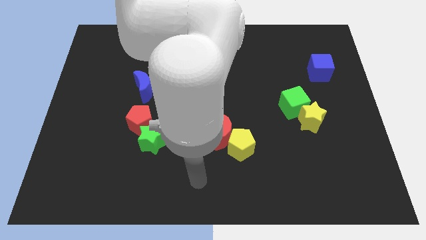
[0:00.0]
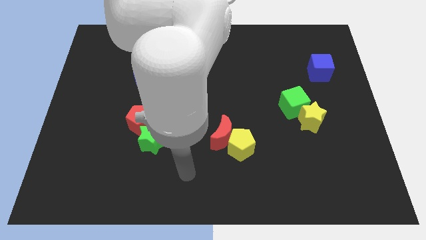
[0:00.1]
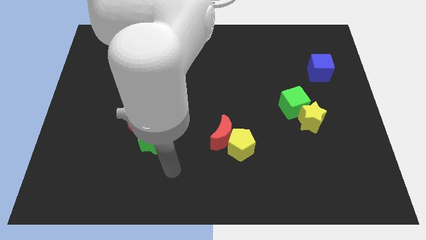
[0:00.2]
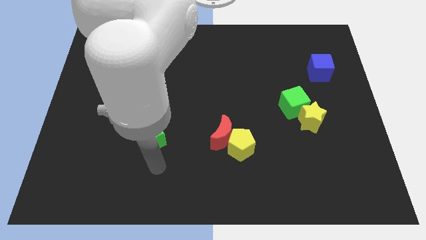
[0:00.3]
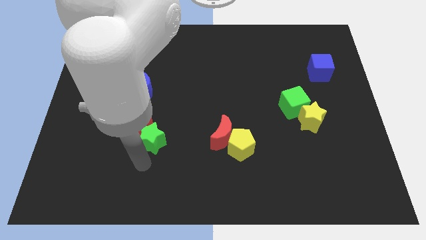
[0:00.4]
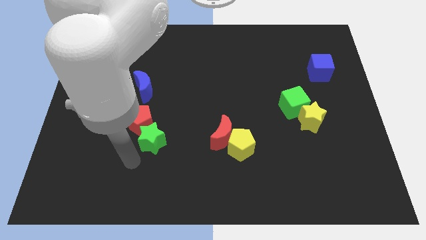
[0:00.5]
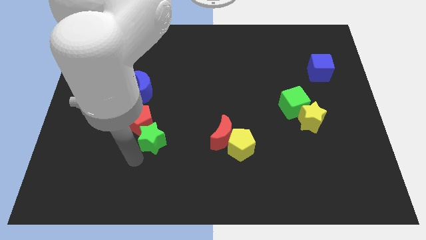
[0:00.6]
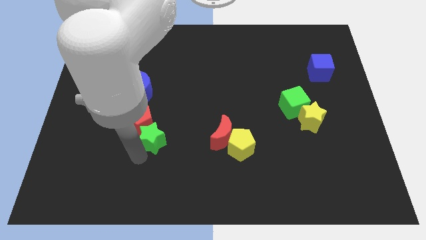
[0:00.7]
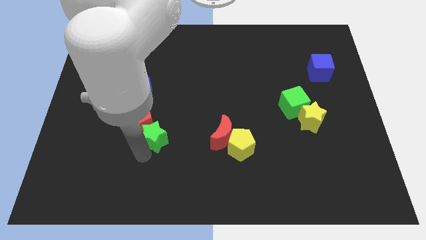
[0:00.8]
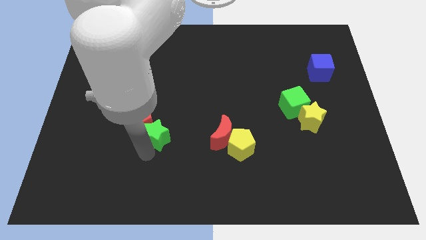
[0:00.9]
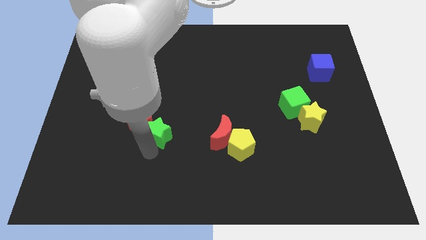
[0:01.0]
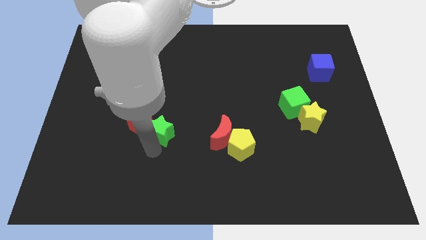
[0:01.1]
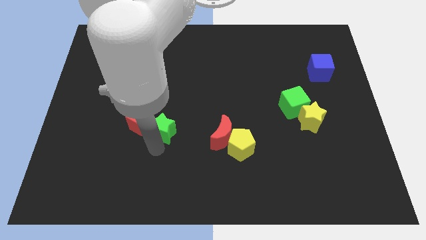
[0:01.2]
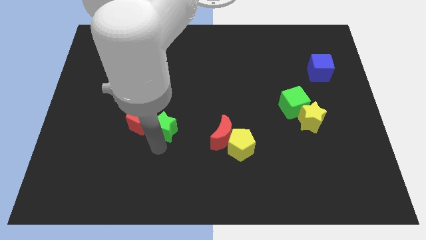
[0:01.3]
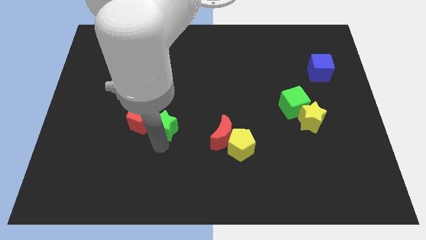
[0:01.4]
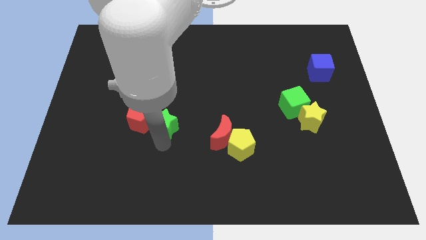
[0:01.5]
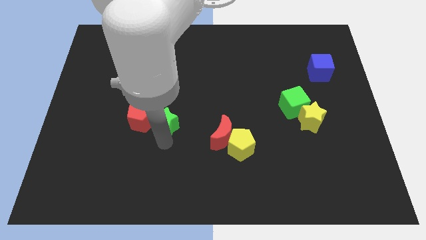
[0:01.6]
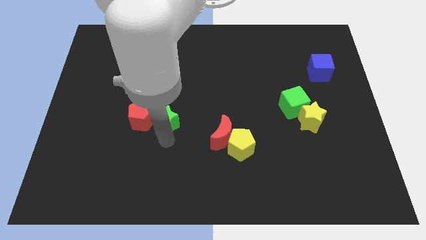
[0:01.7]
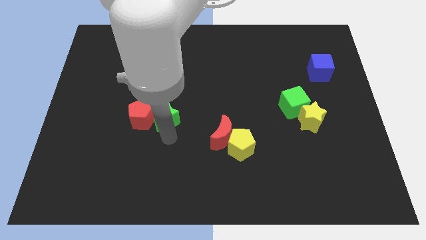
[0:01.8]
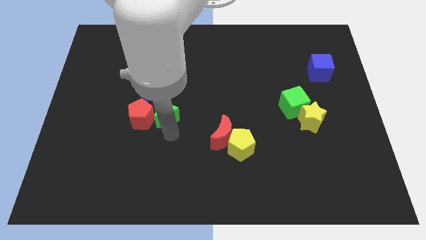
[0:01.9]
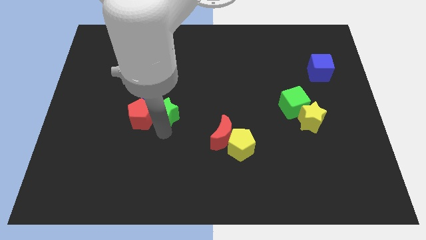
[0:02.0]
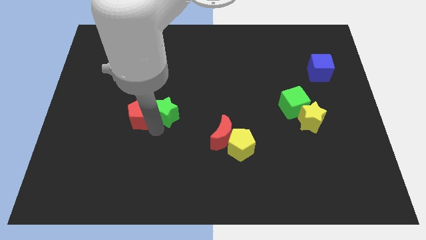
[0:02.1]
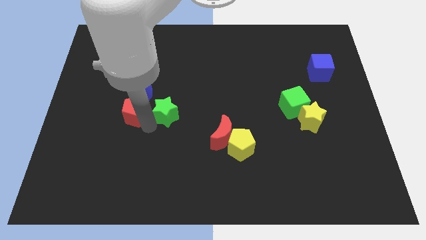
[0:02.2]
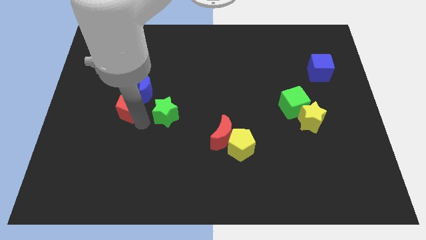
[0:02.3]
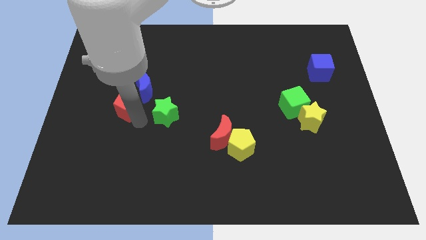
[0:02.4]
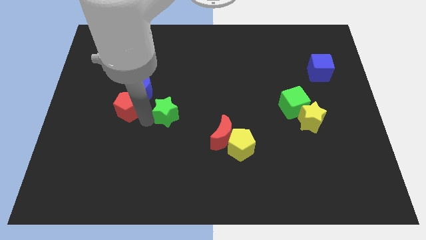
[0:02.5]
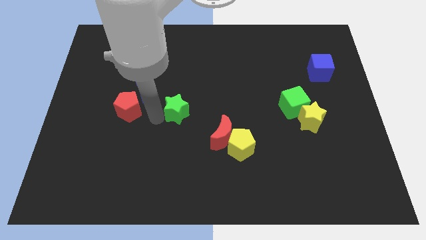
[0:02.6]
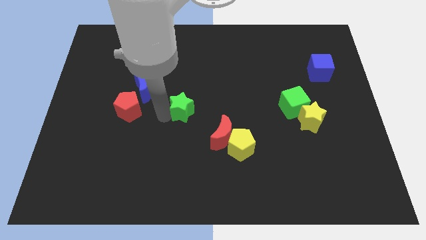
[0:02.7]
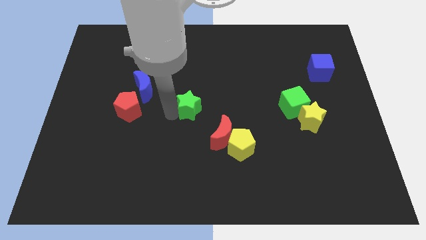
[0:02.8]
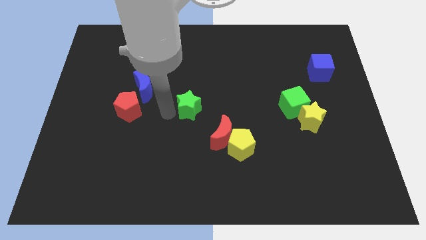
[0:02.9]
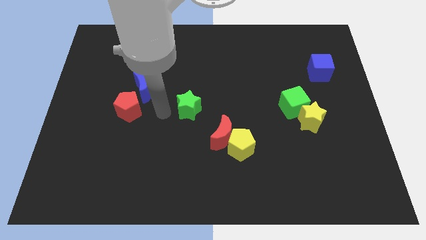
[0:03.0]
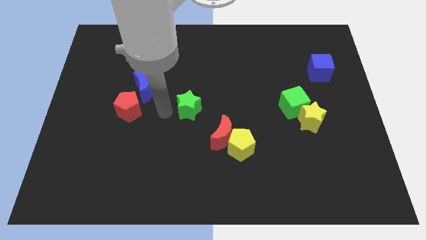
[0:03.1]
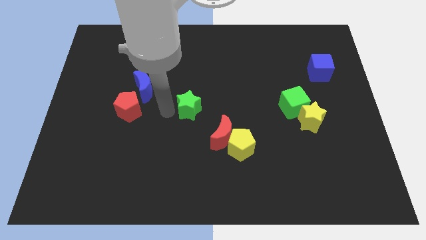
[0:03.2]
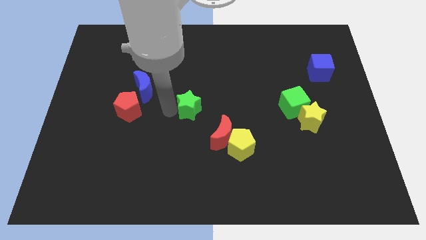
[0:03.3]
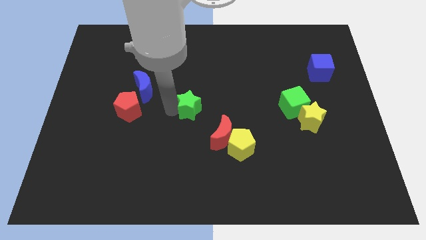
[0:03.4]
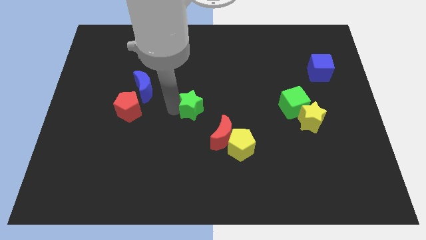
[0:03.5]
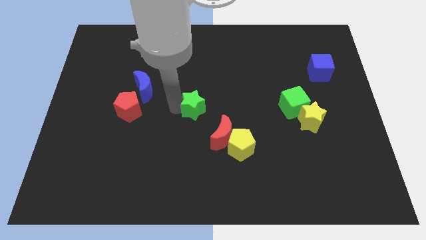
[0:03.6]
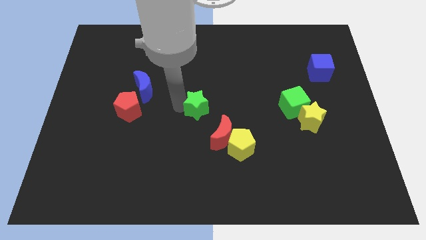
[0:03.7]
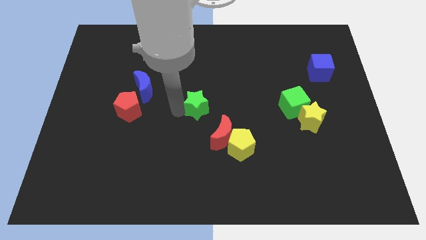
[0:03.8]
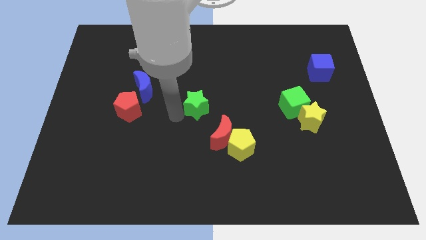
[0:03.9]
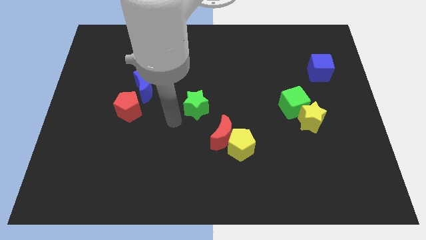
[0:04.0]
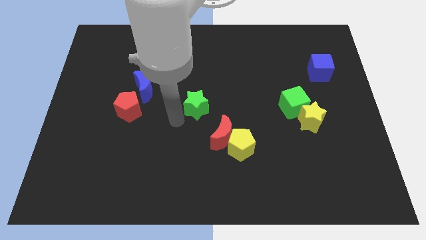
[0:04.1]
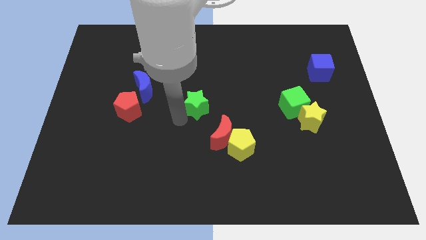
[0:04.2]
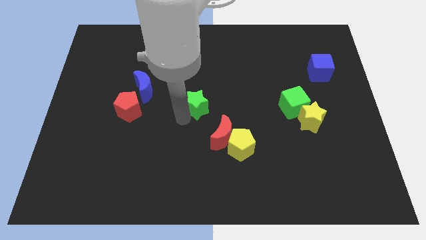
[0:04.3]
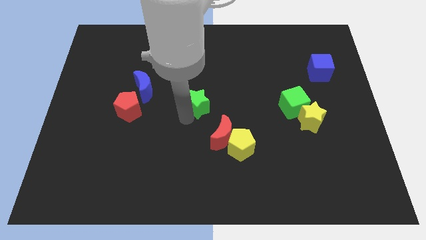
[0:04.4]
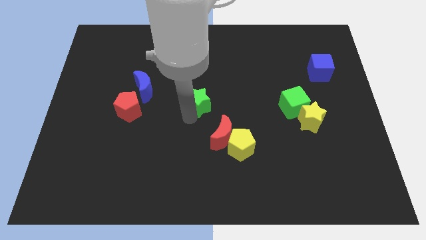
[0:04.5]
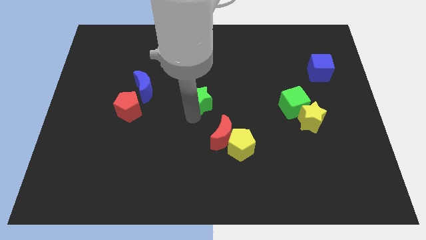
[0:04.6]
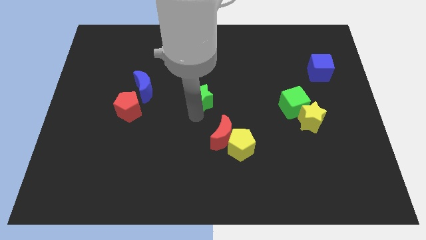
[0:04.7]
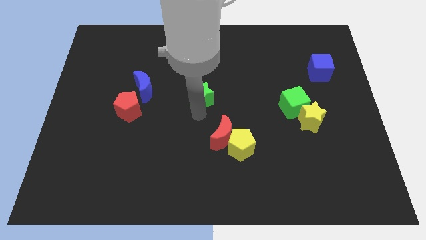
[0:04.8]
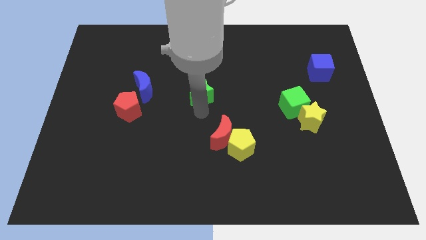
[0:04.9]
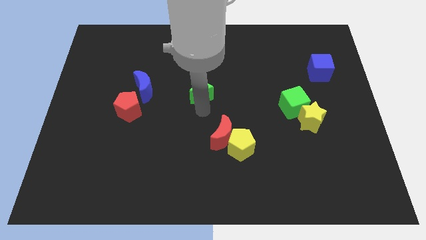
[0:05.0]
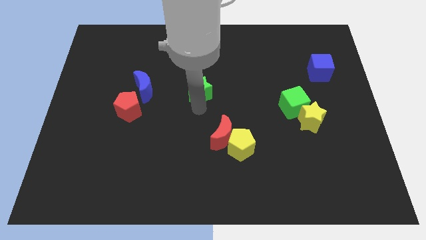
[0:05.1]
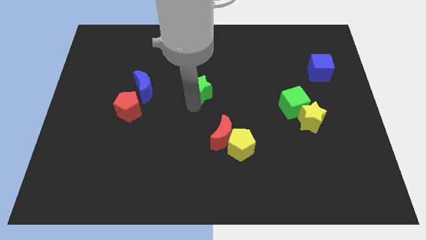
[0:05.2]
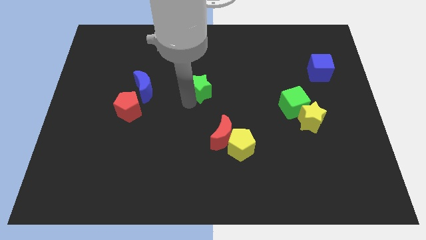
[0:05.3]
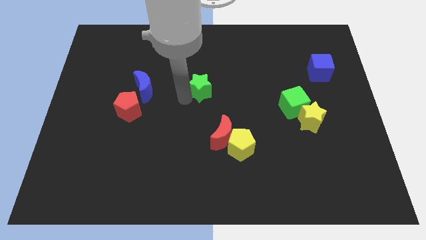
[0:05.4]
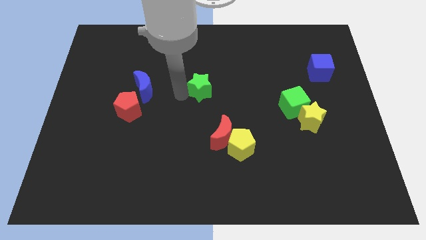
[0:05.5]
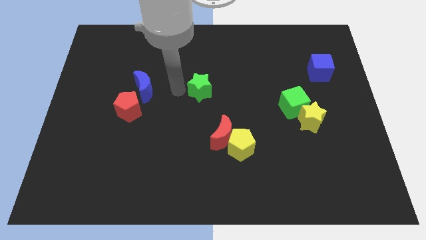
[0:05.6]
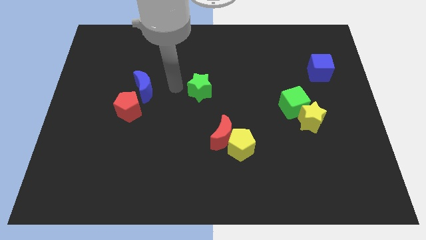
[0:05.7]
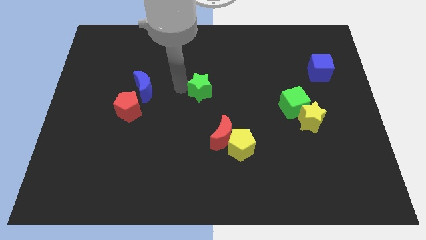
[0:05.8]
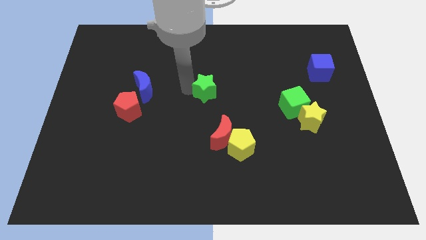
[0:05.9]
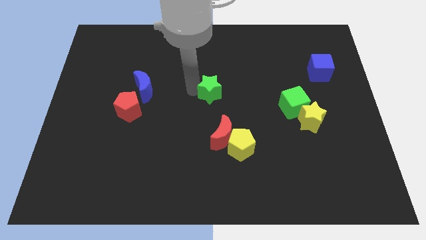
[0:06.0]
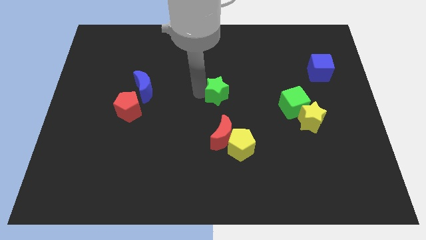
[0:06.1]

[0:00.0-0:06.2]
move the green star upwards and then right

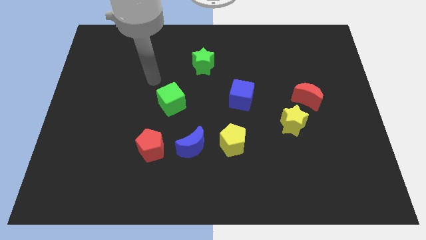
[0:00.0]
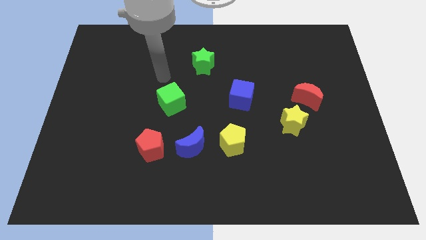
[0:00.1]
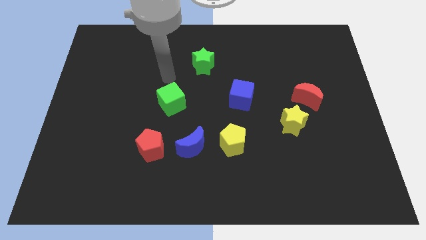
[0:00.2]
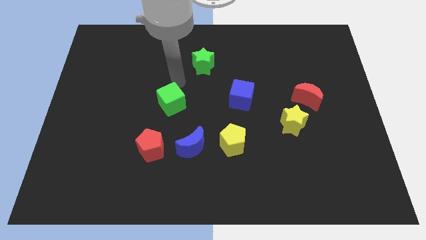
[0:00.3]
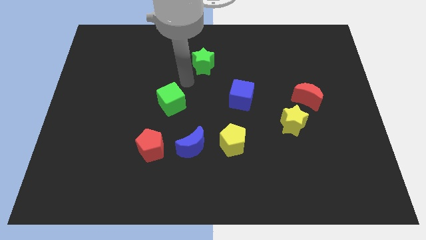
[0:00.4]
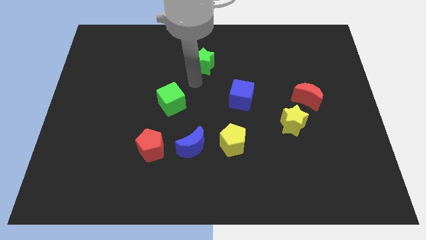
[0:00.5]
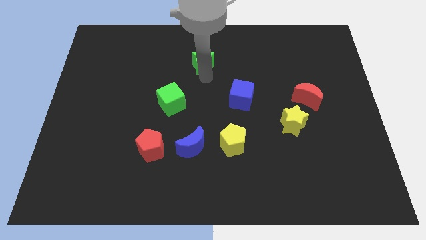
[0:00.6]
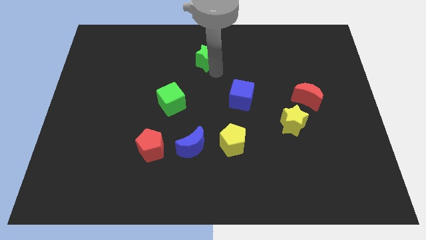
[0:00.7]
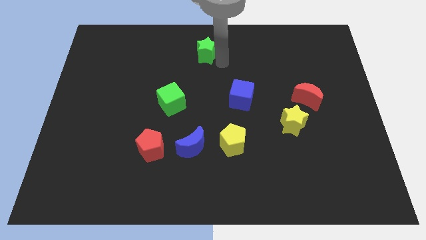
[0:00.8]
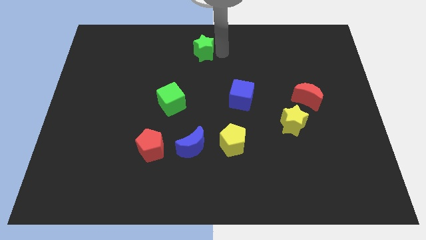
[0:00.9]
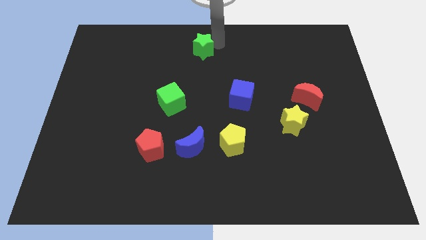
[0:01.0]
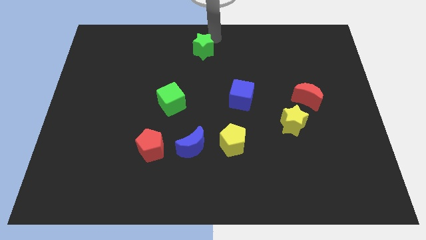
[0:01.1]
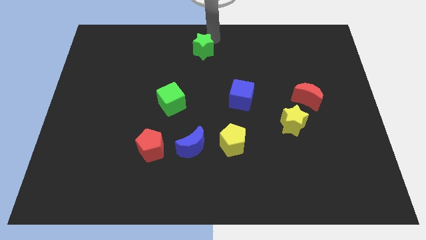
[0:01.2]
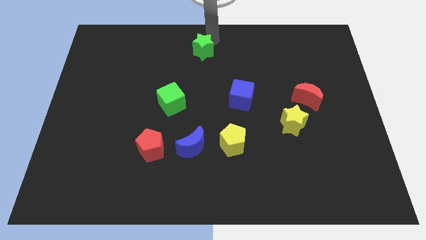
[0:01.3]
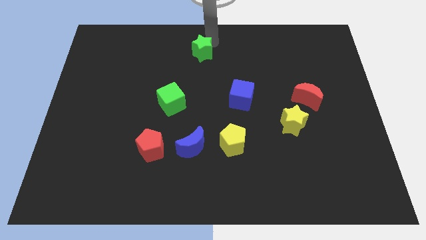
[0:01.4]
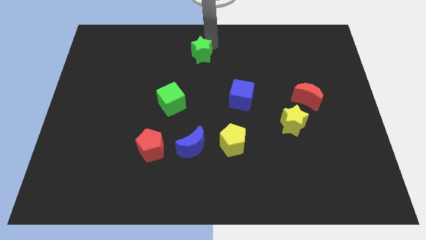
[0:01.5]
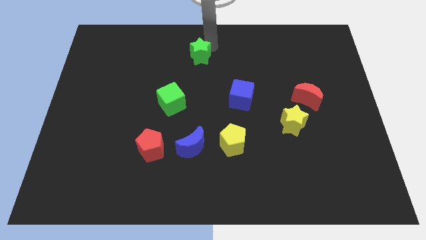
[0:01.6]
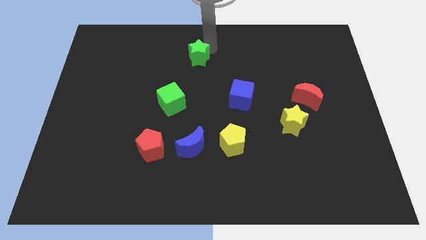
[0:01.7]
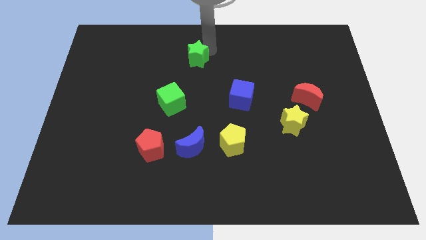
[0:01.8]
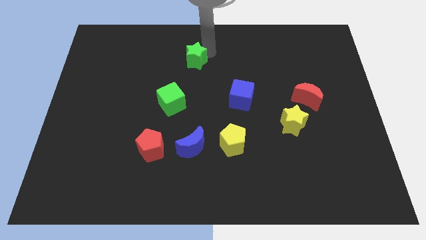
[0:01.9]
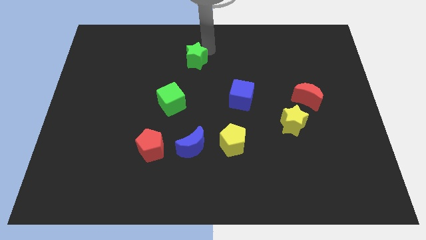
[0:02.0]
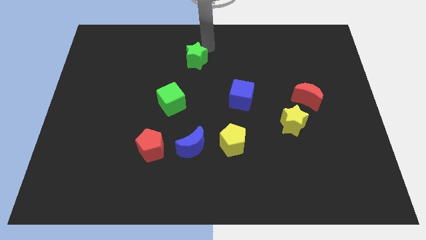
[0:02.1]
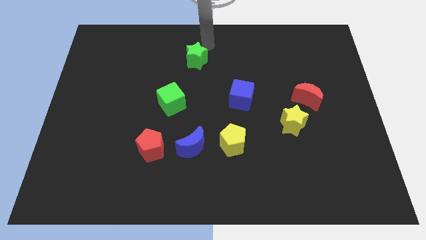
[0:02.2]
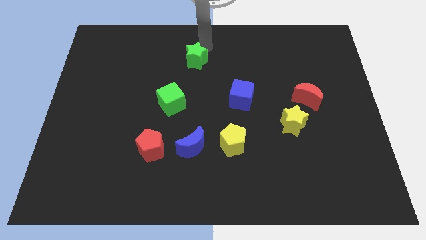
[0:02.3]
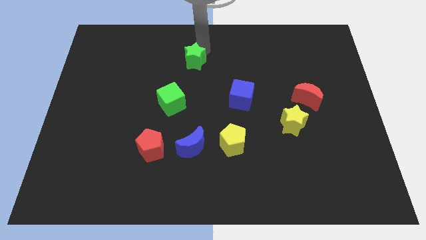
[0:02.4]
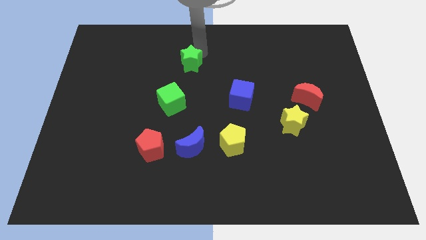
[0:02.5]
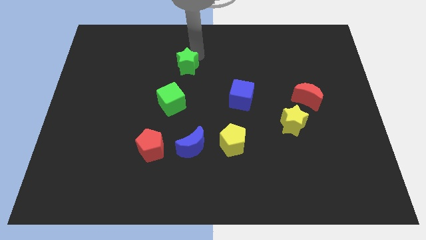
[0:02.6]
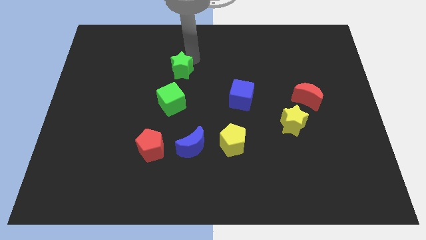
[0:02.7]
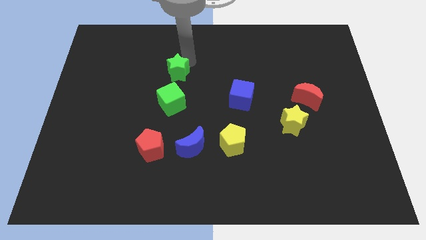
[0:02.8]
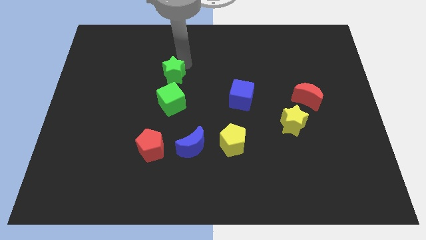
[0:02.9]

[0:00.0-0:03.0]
move the green star somewhat downwards and then to the left
